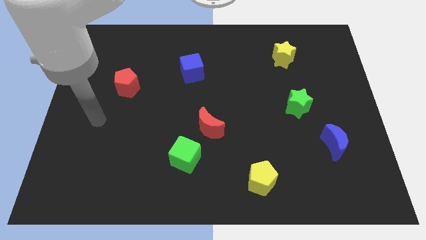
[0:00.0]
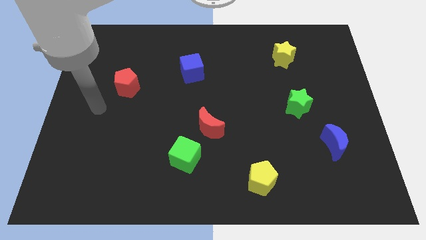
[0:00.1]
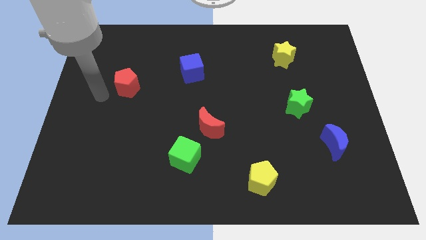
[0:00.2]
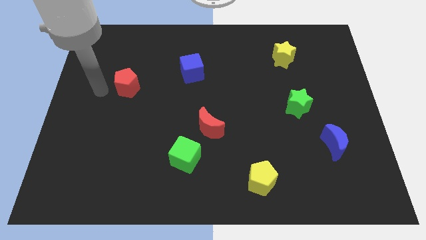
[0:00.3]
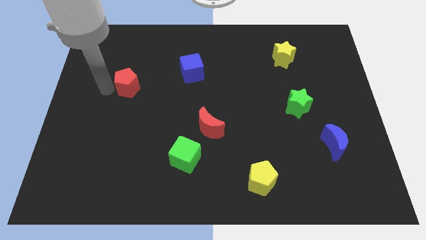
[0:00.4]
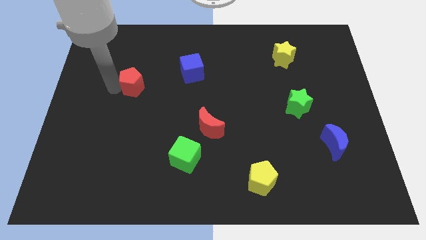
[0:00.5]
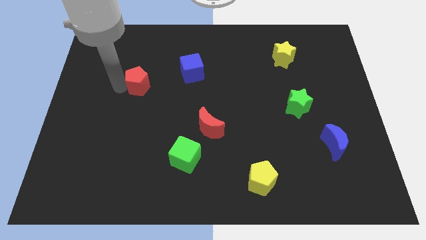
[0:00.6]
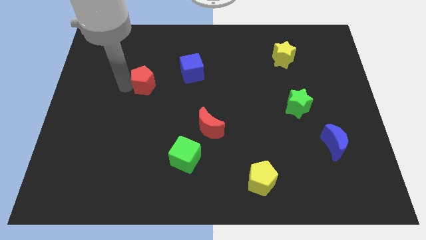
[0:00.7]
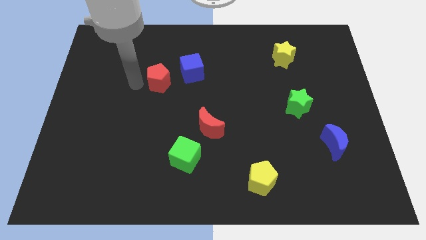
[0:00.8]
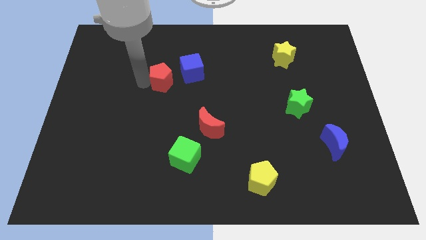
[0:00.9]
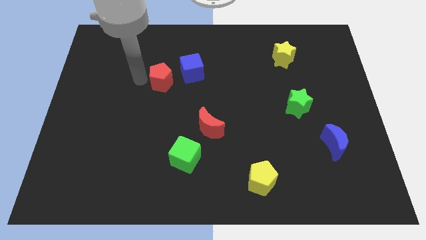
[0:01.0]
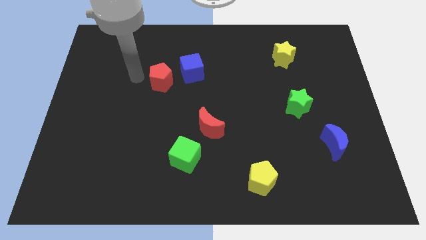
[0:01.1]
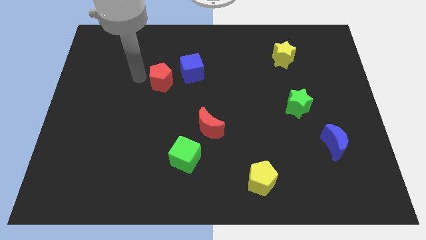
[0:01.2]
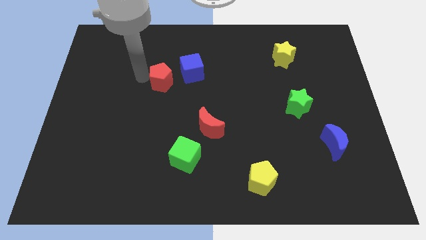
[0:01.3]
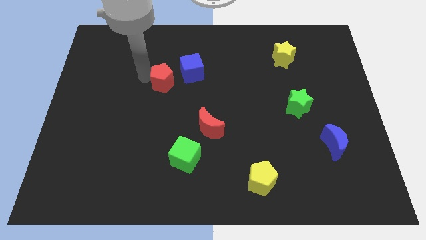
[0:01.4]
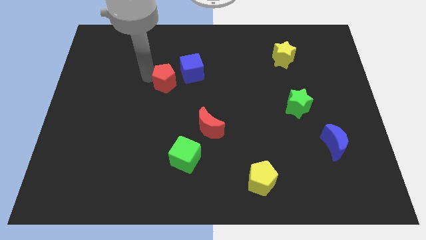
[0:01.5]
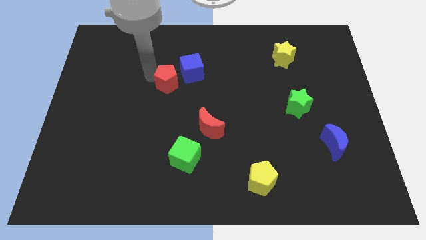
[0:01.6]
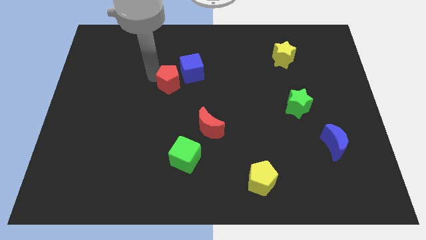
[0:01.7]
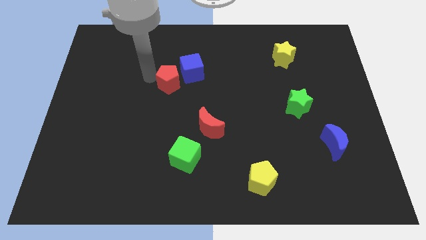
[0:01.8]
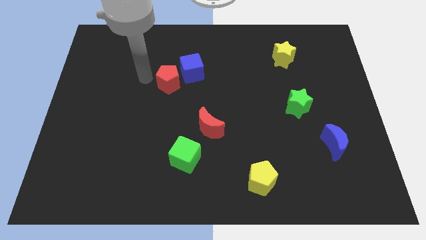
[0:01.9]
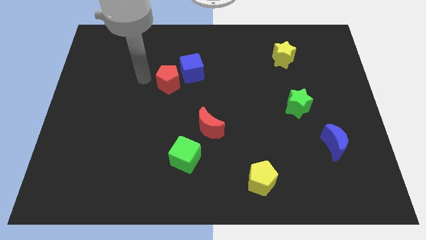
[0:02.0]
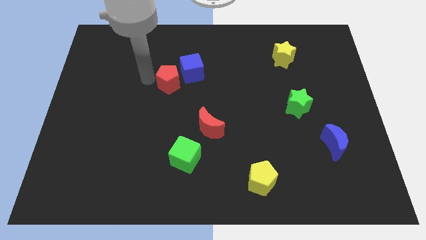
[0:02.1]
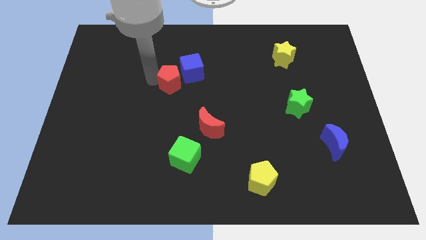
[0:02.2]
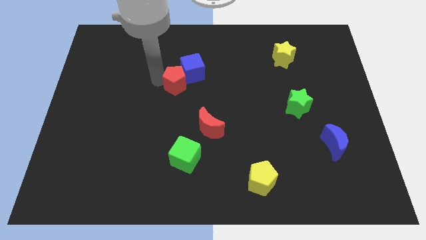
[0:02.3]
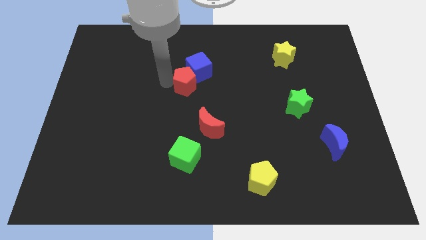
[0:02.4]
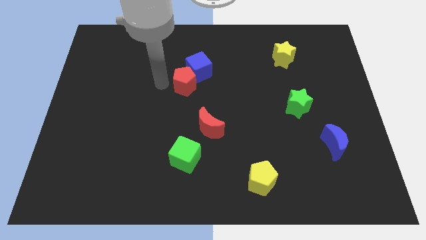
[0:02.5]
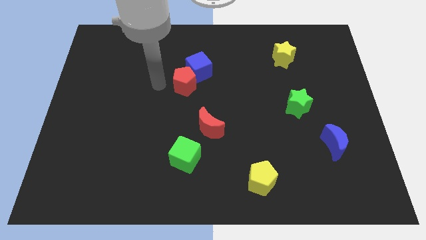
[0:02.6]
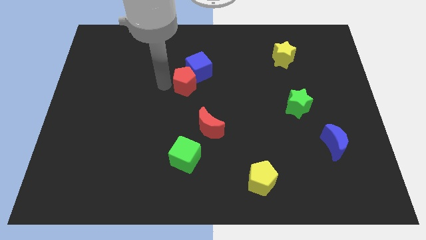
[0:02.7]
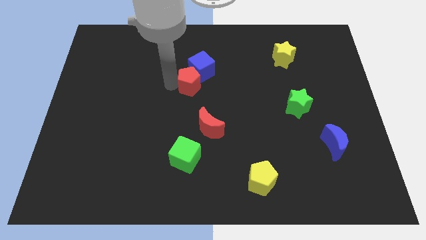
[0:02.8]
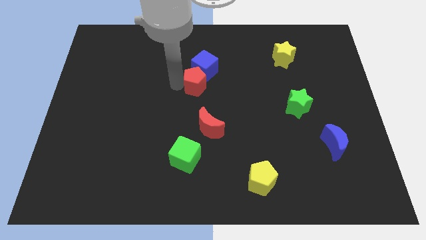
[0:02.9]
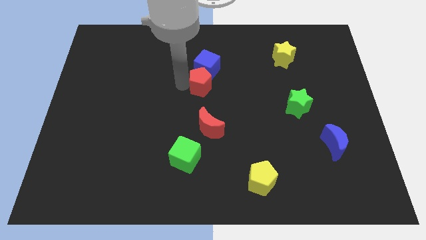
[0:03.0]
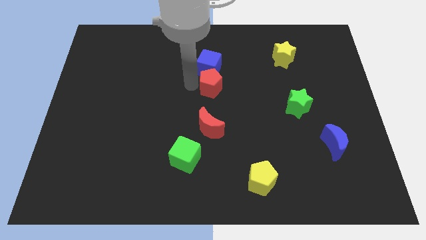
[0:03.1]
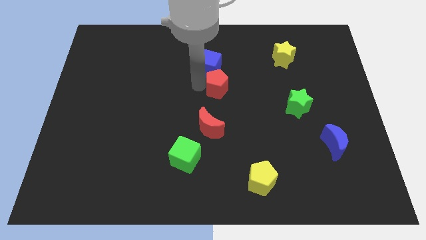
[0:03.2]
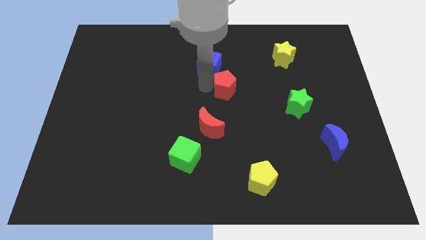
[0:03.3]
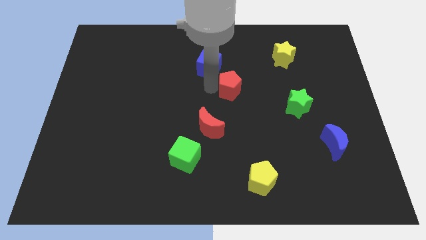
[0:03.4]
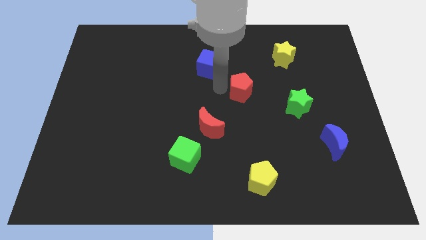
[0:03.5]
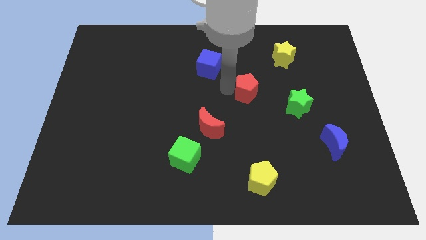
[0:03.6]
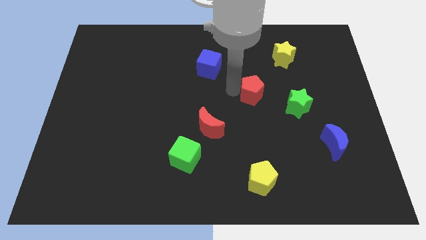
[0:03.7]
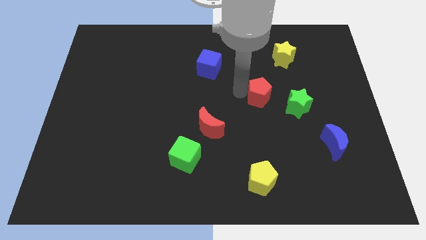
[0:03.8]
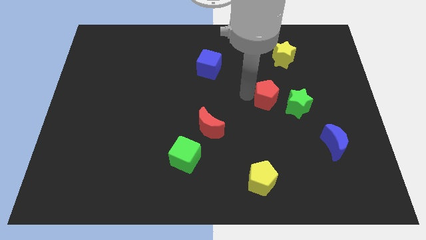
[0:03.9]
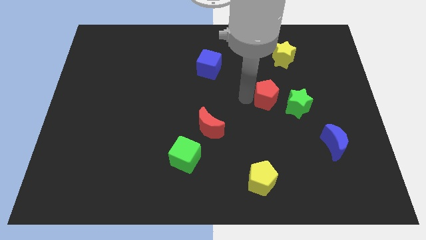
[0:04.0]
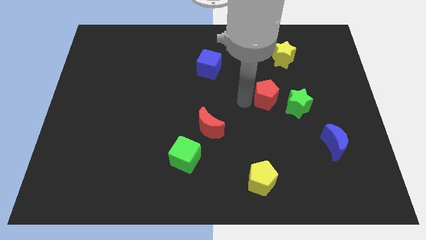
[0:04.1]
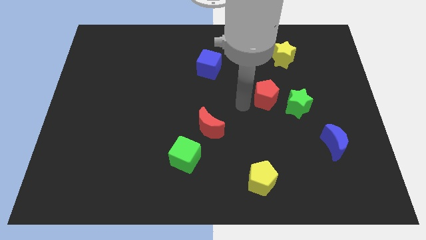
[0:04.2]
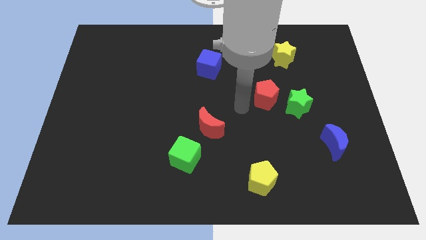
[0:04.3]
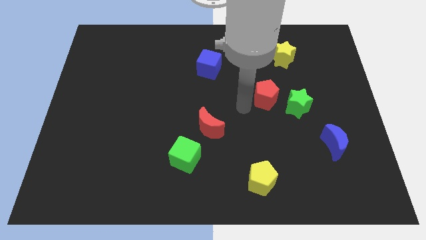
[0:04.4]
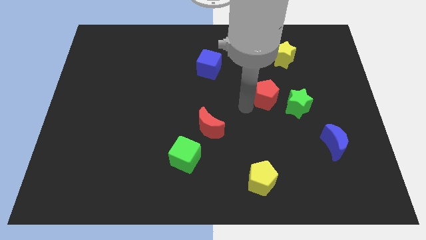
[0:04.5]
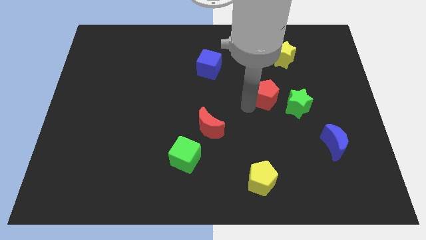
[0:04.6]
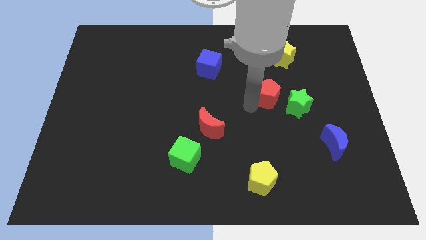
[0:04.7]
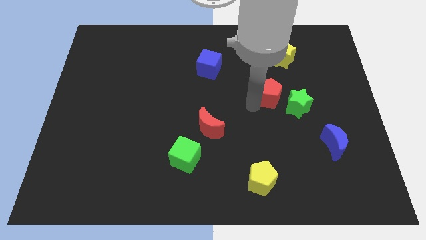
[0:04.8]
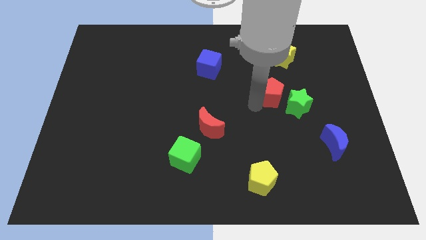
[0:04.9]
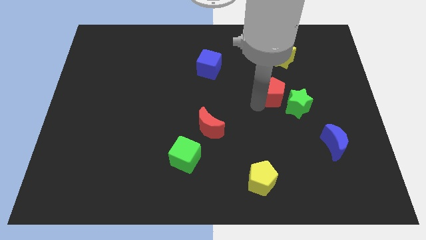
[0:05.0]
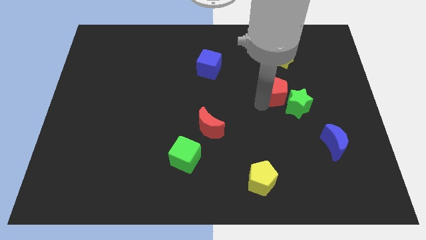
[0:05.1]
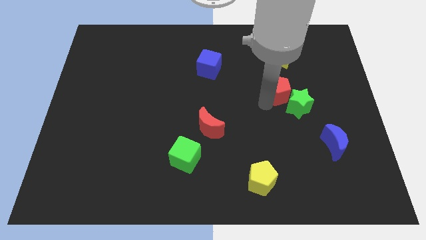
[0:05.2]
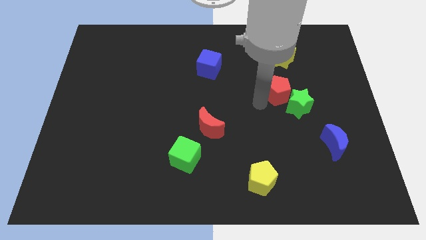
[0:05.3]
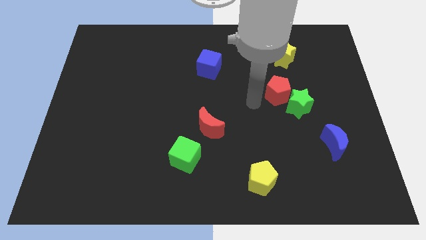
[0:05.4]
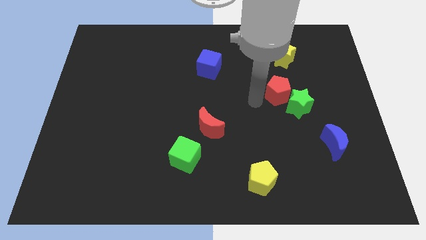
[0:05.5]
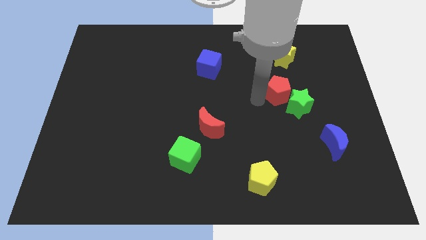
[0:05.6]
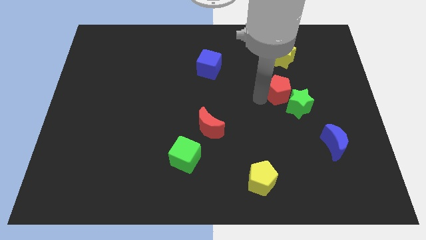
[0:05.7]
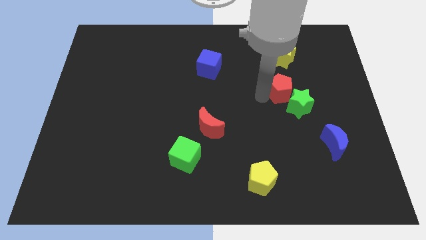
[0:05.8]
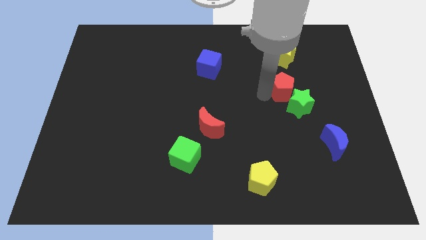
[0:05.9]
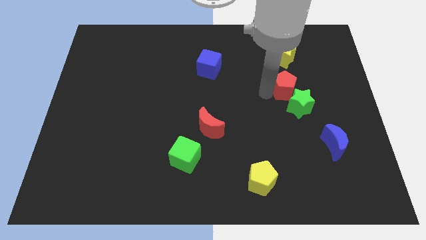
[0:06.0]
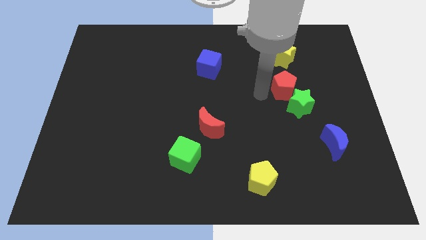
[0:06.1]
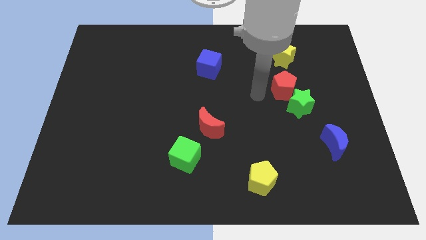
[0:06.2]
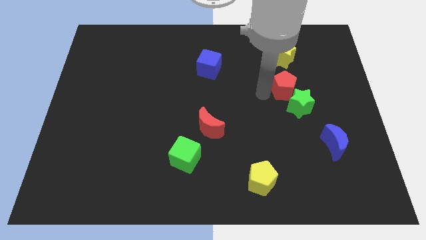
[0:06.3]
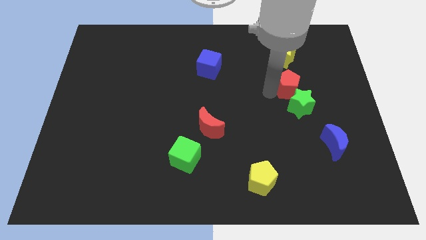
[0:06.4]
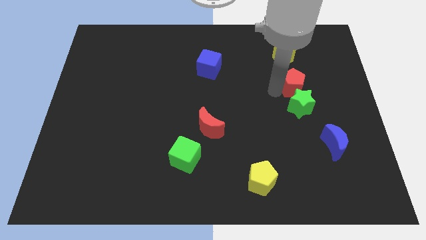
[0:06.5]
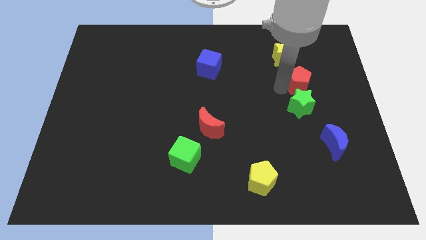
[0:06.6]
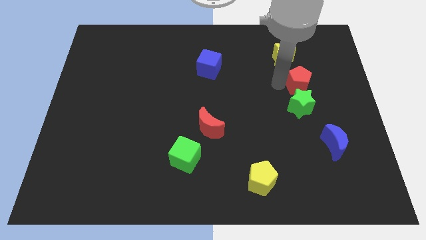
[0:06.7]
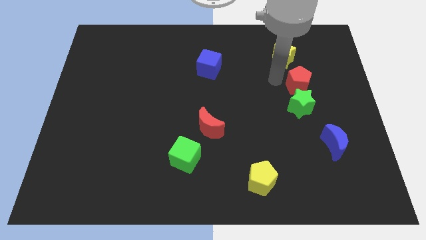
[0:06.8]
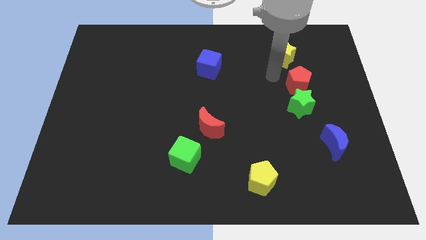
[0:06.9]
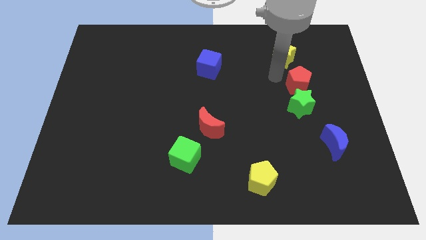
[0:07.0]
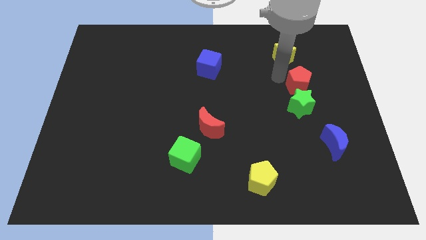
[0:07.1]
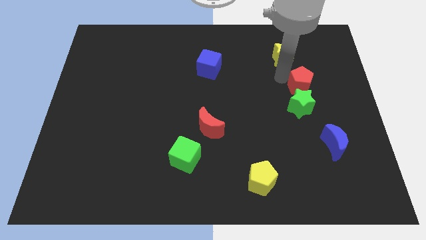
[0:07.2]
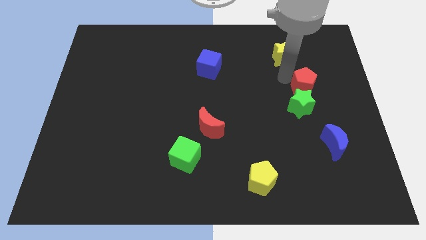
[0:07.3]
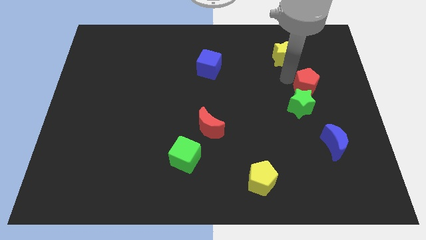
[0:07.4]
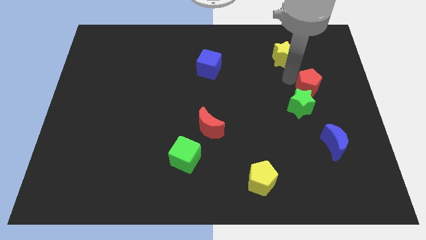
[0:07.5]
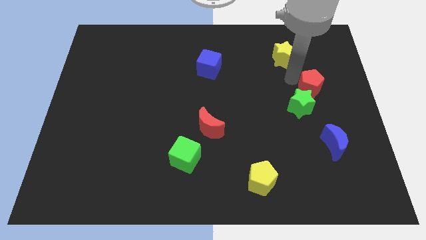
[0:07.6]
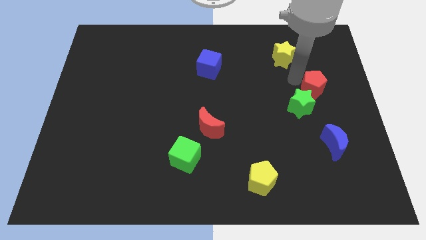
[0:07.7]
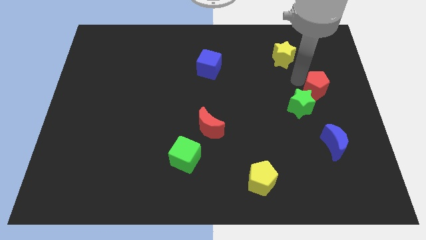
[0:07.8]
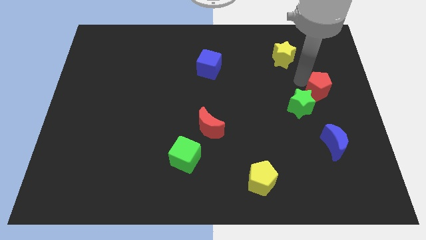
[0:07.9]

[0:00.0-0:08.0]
move the red pentagon to the right side of the board
